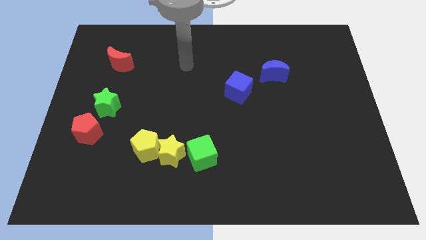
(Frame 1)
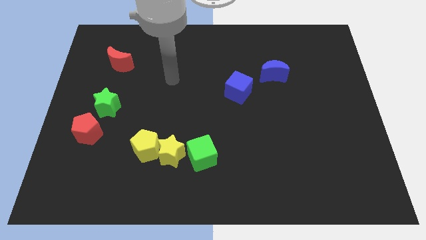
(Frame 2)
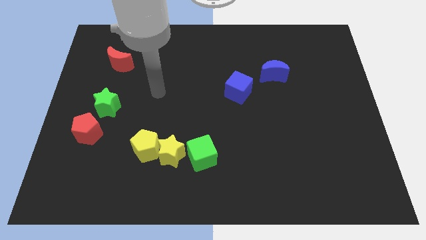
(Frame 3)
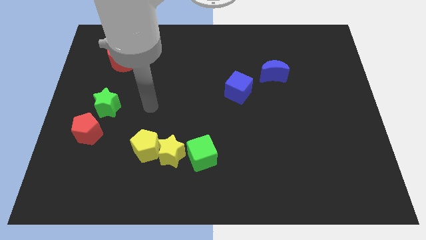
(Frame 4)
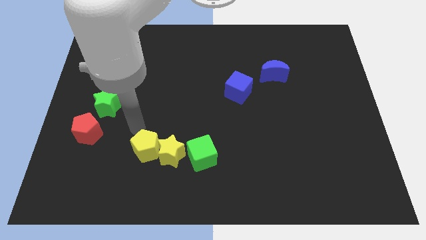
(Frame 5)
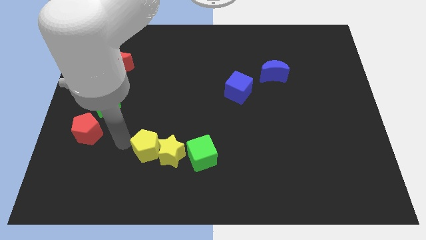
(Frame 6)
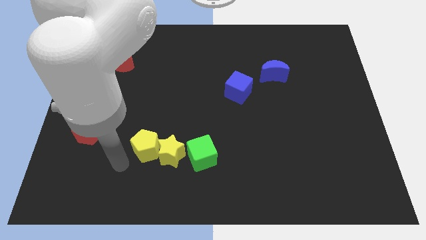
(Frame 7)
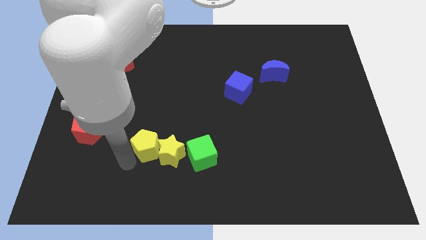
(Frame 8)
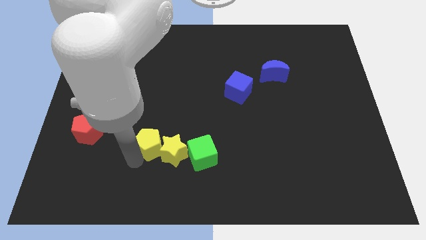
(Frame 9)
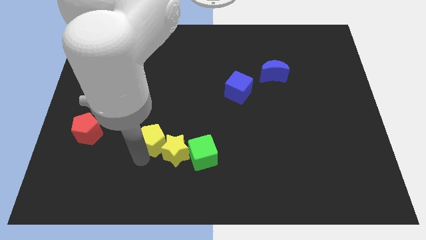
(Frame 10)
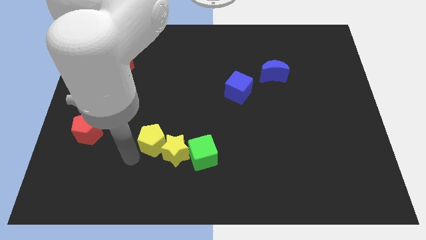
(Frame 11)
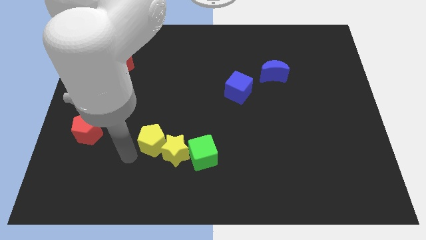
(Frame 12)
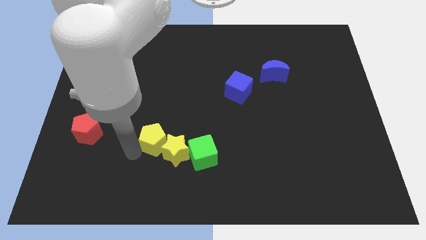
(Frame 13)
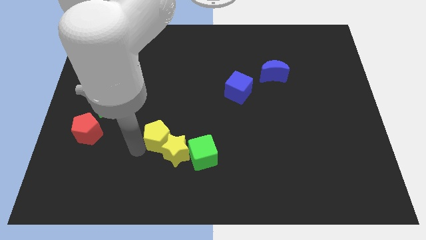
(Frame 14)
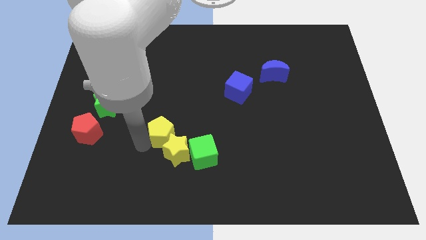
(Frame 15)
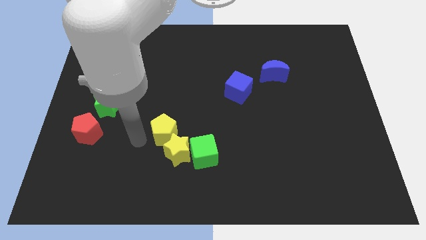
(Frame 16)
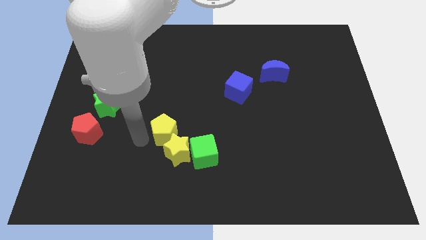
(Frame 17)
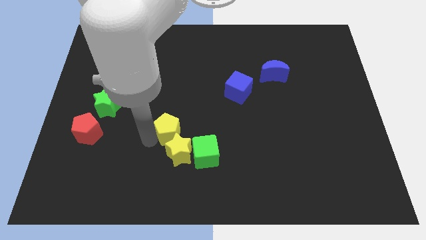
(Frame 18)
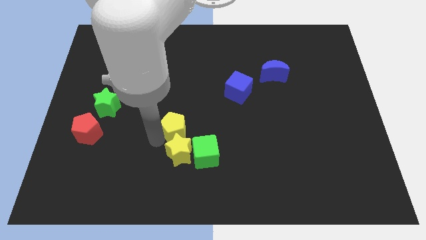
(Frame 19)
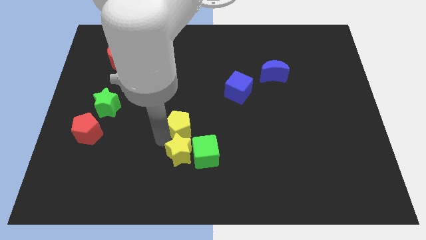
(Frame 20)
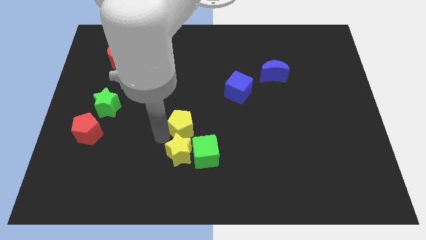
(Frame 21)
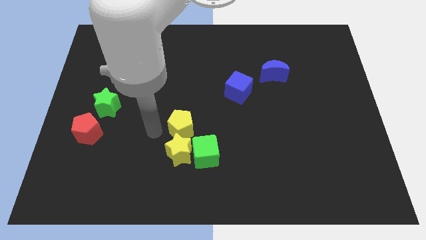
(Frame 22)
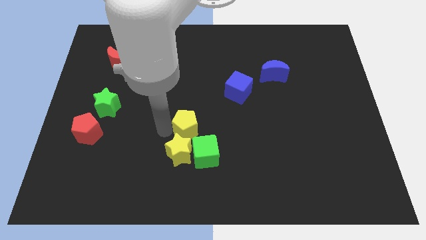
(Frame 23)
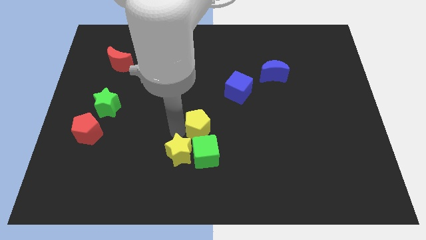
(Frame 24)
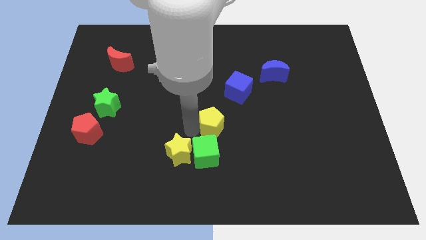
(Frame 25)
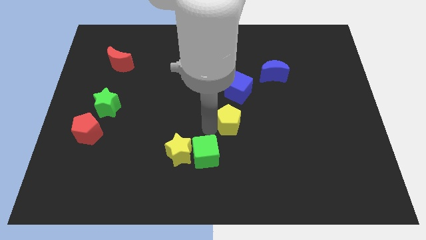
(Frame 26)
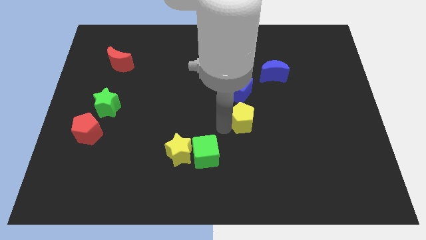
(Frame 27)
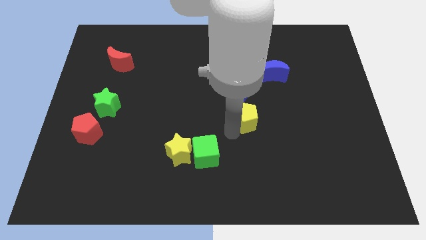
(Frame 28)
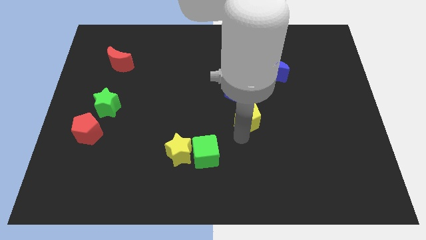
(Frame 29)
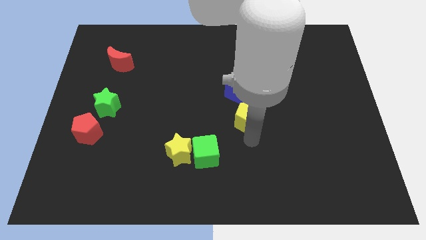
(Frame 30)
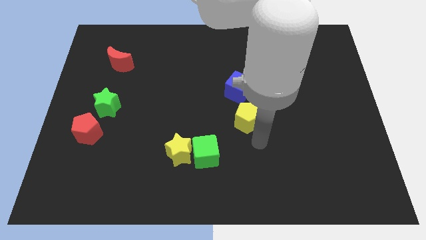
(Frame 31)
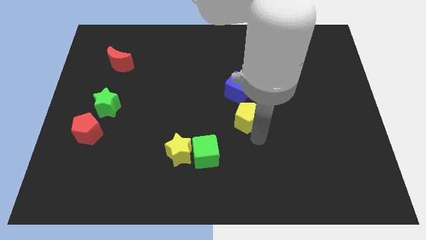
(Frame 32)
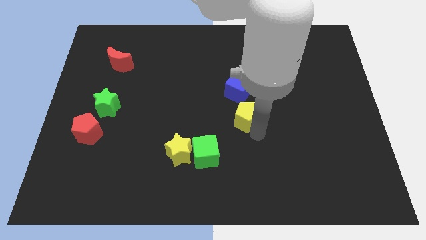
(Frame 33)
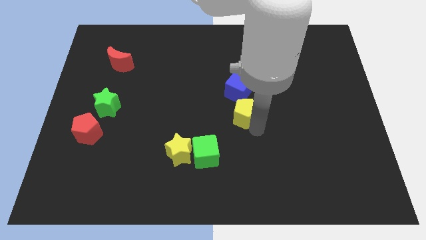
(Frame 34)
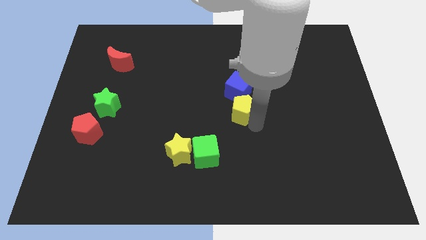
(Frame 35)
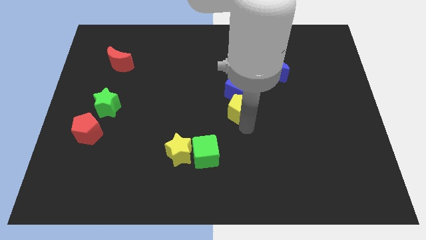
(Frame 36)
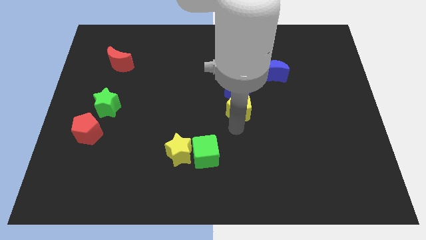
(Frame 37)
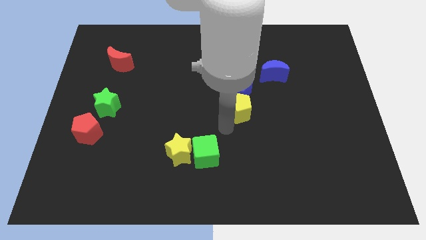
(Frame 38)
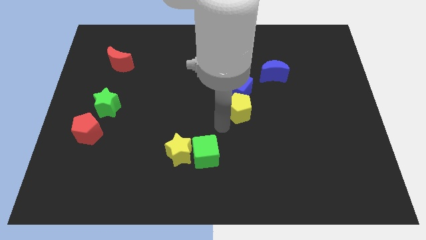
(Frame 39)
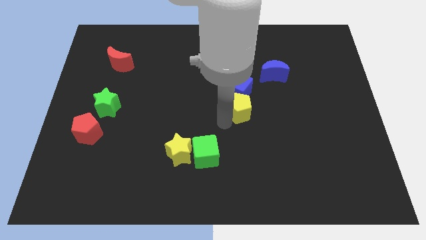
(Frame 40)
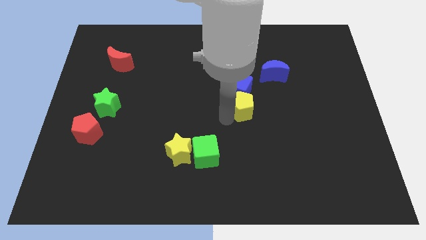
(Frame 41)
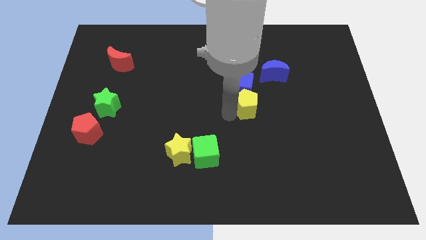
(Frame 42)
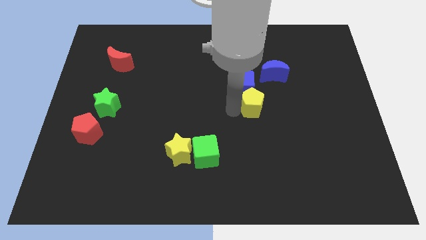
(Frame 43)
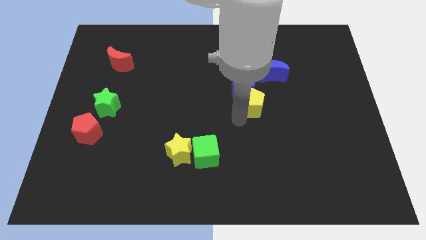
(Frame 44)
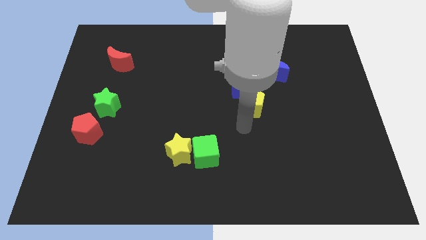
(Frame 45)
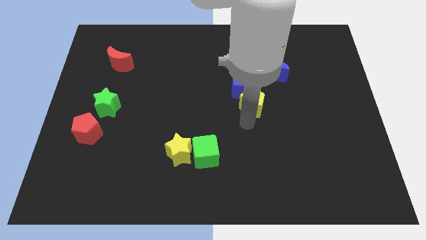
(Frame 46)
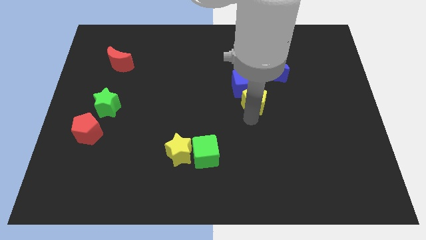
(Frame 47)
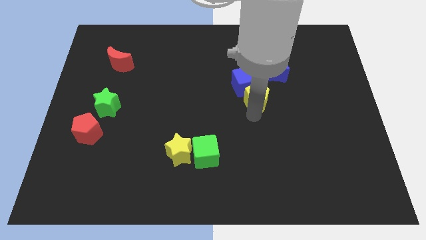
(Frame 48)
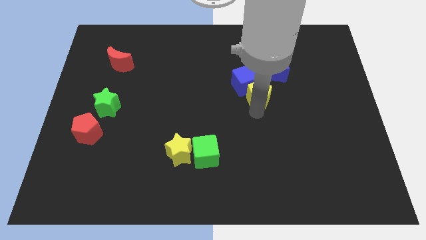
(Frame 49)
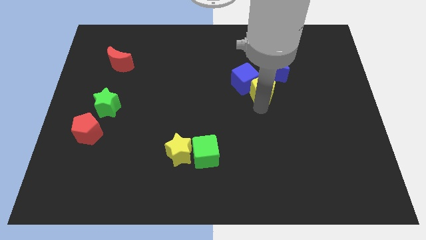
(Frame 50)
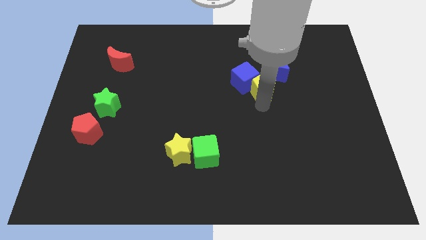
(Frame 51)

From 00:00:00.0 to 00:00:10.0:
put the yellow pentagon close to the blue moon

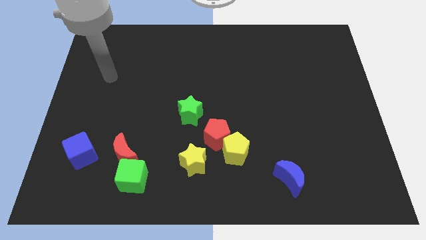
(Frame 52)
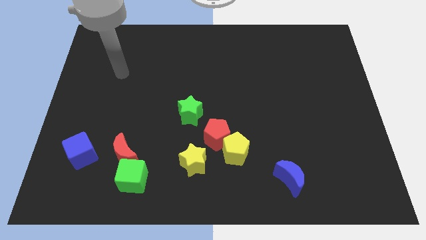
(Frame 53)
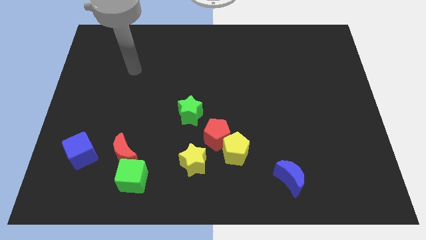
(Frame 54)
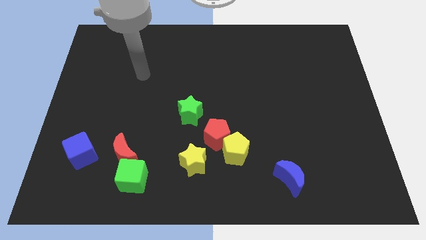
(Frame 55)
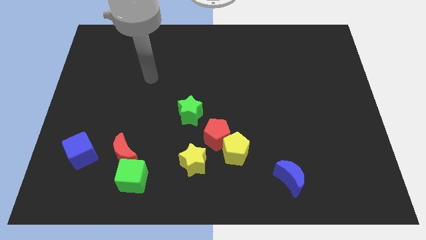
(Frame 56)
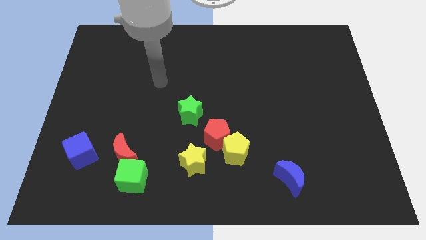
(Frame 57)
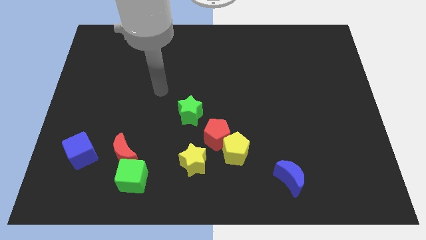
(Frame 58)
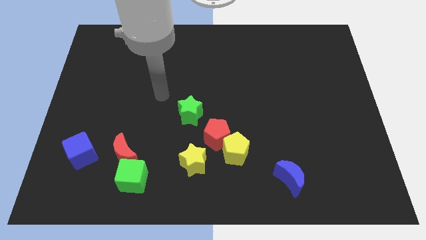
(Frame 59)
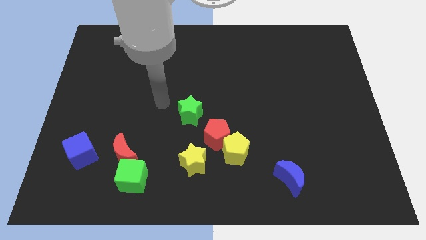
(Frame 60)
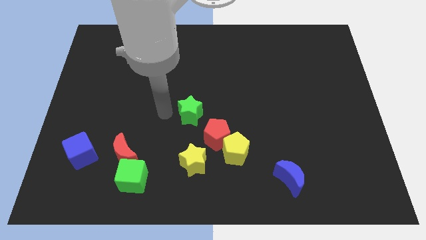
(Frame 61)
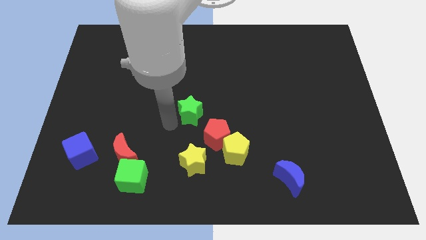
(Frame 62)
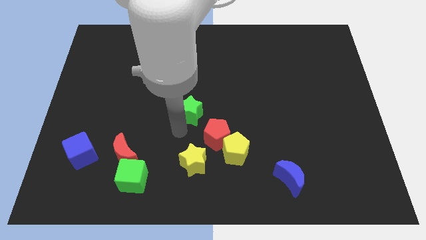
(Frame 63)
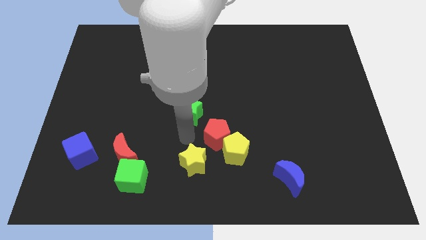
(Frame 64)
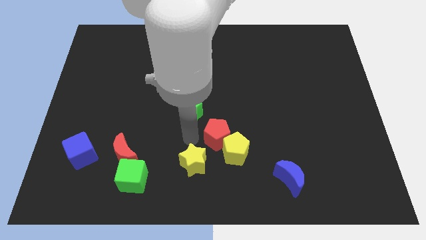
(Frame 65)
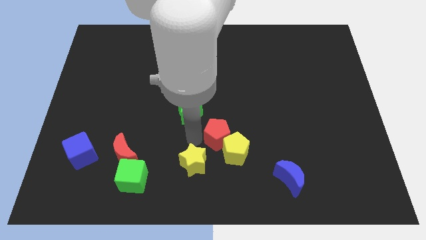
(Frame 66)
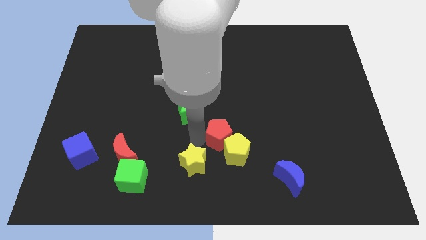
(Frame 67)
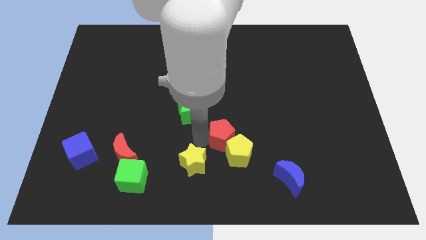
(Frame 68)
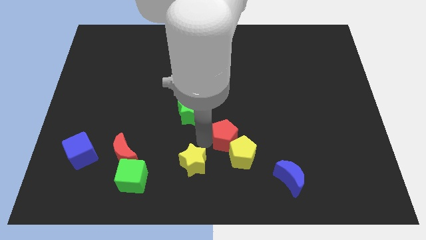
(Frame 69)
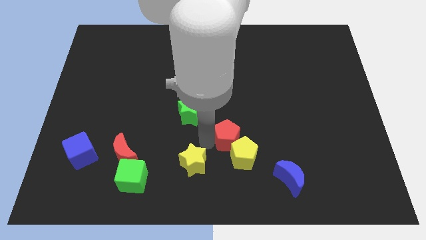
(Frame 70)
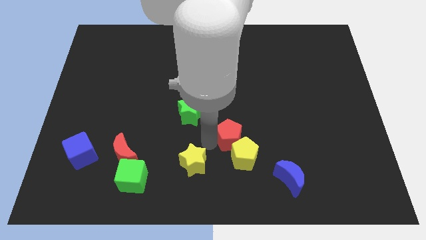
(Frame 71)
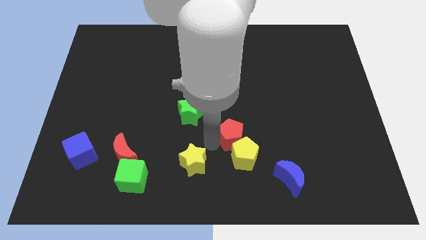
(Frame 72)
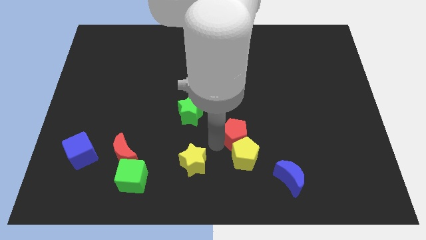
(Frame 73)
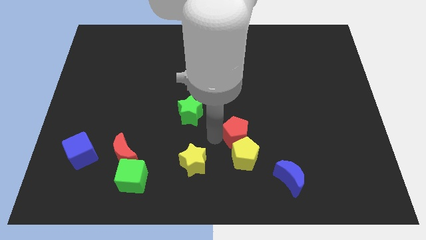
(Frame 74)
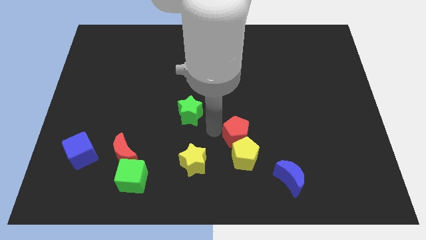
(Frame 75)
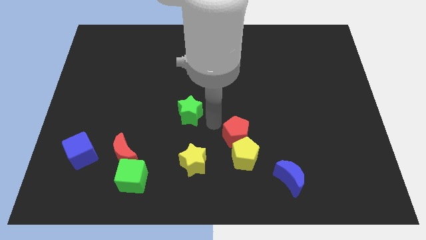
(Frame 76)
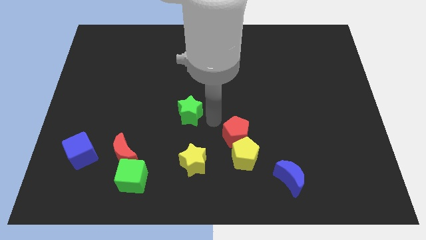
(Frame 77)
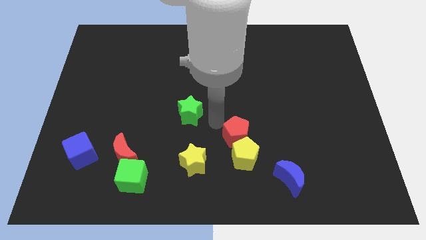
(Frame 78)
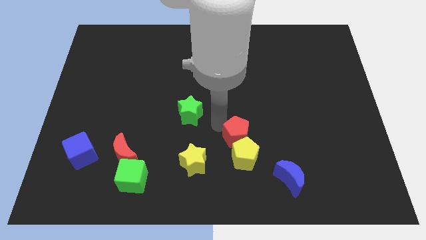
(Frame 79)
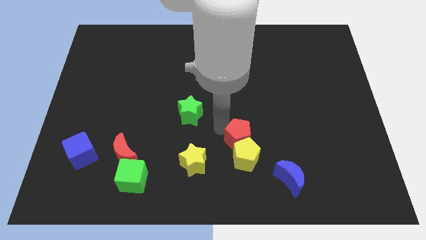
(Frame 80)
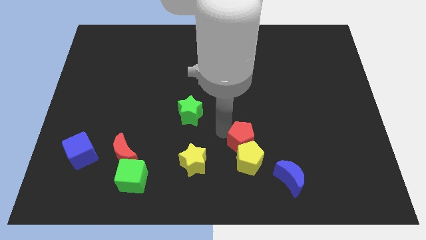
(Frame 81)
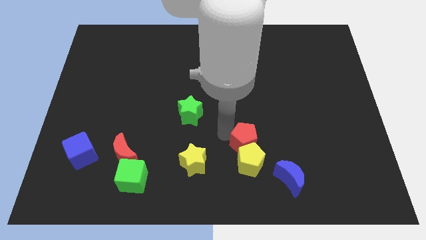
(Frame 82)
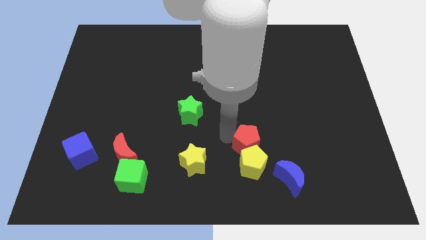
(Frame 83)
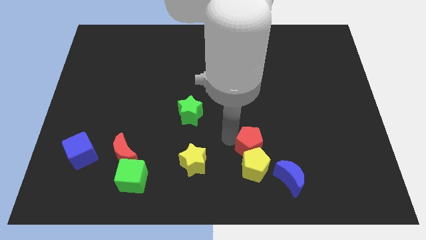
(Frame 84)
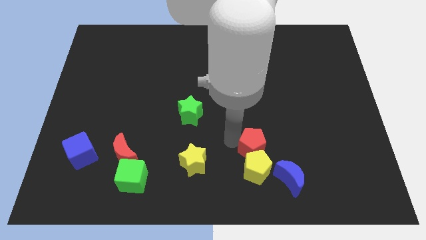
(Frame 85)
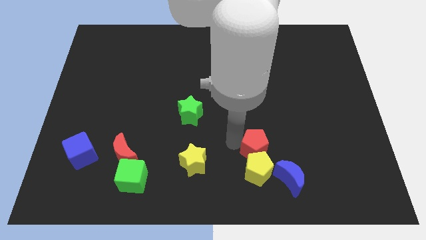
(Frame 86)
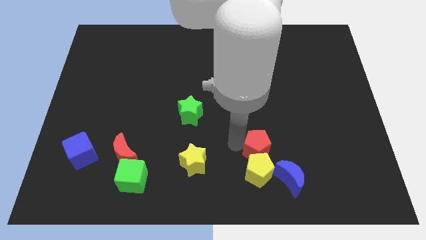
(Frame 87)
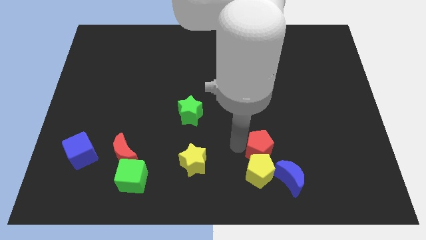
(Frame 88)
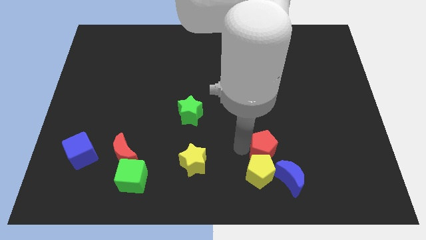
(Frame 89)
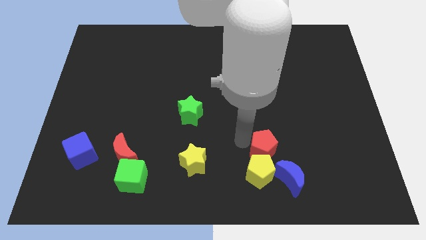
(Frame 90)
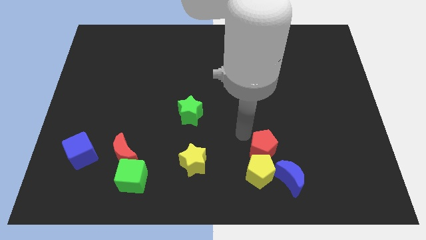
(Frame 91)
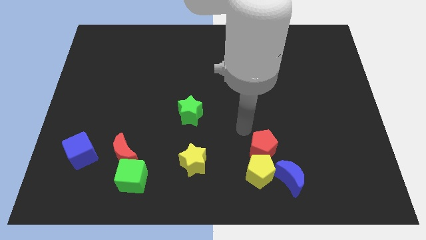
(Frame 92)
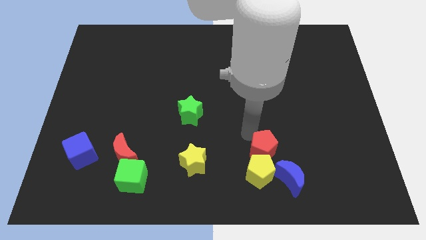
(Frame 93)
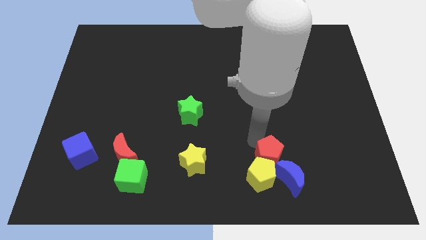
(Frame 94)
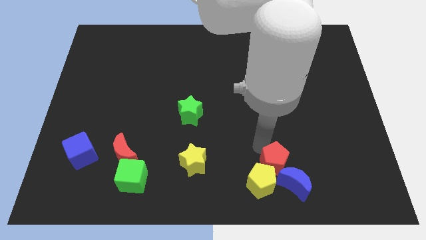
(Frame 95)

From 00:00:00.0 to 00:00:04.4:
move the red pentagon next to the blue moon
